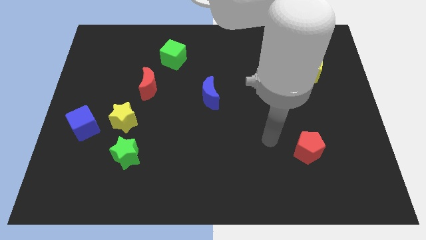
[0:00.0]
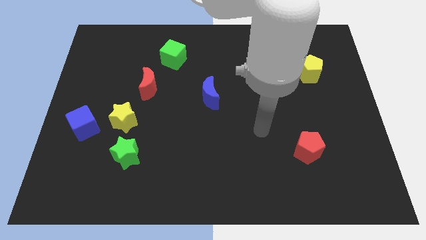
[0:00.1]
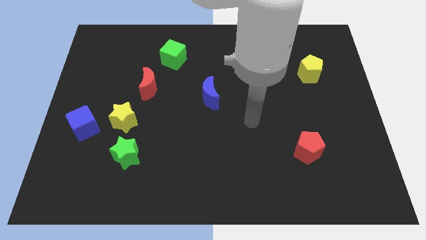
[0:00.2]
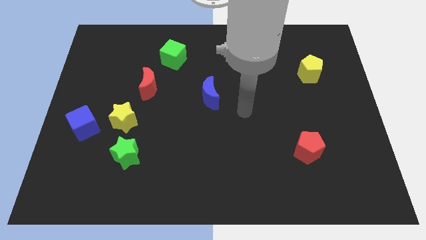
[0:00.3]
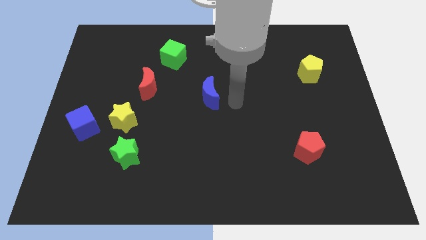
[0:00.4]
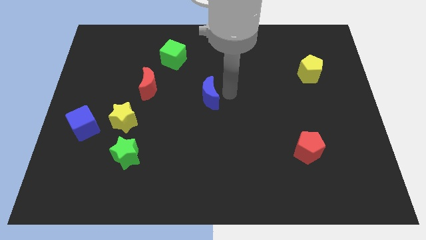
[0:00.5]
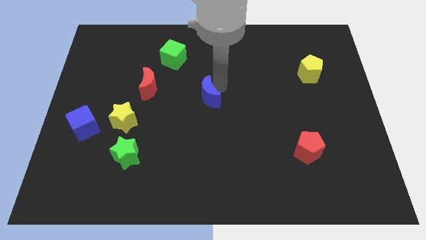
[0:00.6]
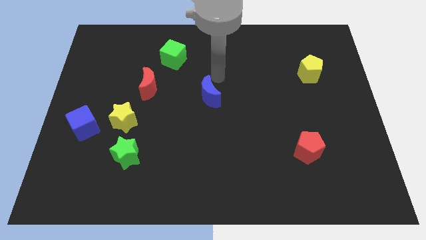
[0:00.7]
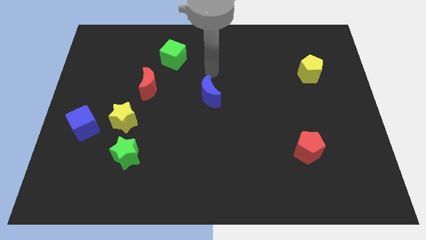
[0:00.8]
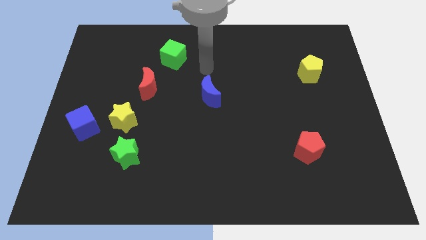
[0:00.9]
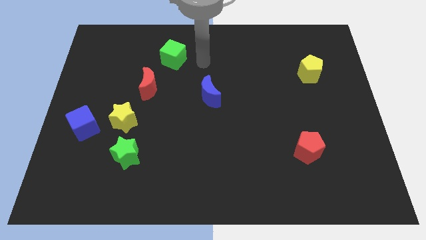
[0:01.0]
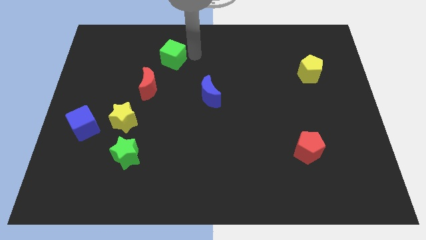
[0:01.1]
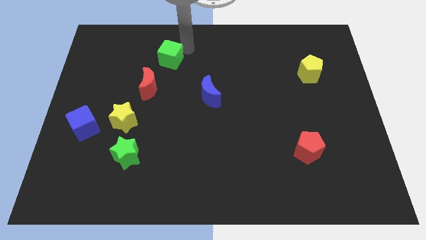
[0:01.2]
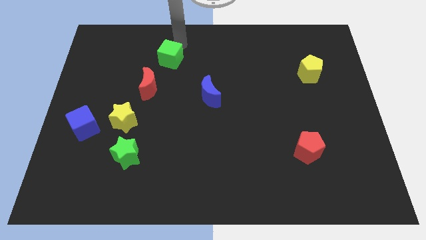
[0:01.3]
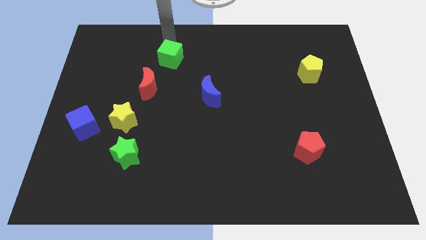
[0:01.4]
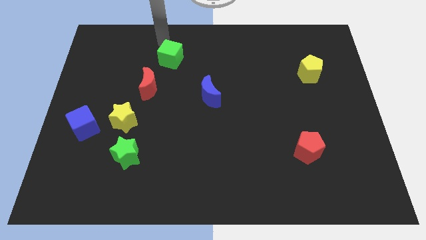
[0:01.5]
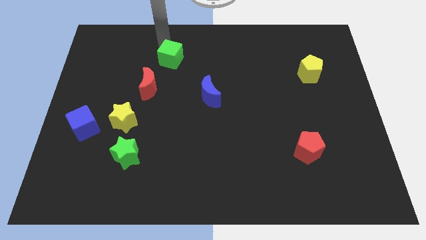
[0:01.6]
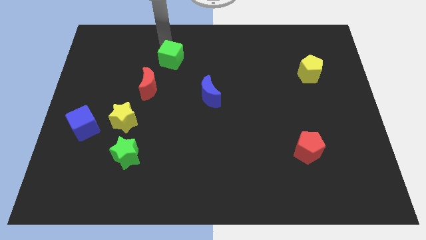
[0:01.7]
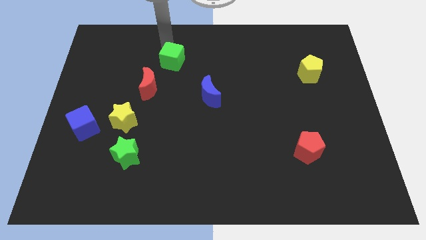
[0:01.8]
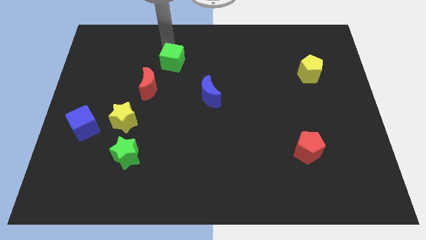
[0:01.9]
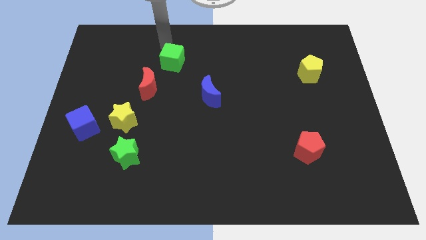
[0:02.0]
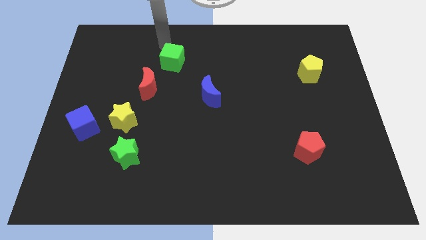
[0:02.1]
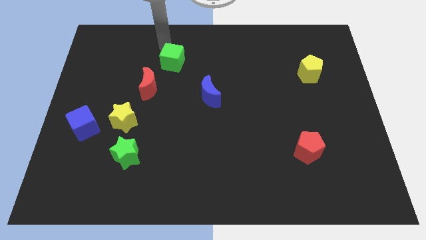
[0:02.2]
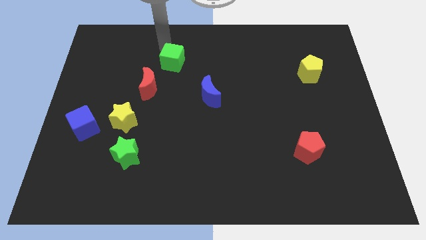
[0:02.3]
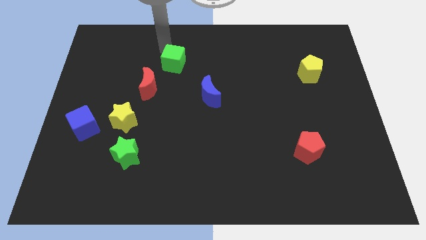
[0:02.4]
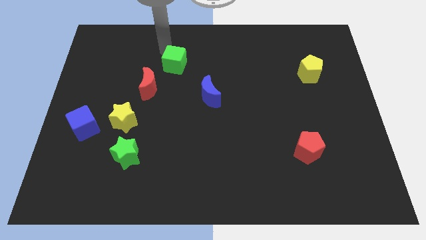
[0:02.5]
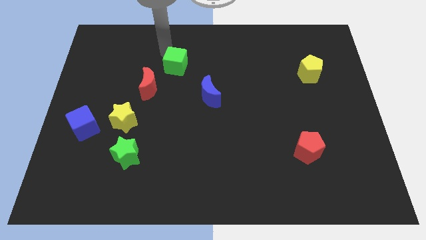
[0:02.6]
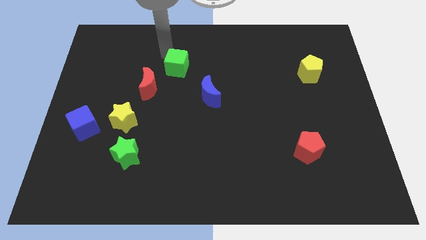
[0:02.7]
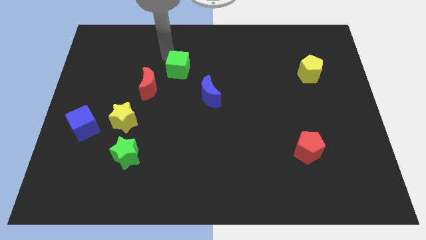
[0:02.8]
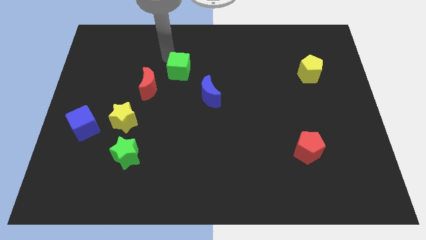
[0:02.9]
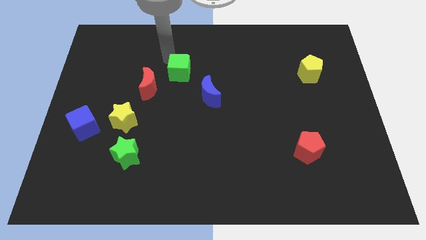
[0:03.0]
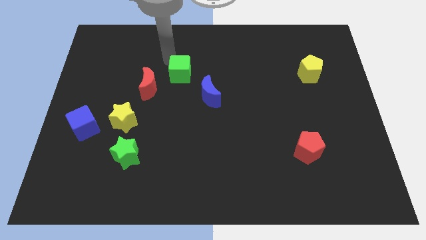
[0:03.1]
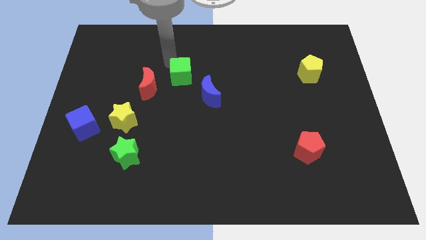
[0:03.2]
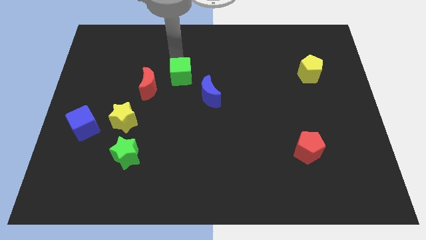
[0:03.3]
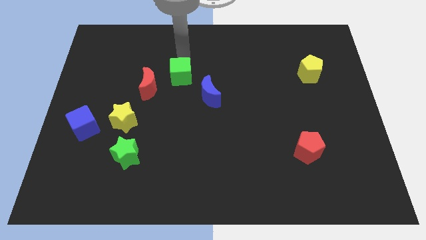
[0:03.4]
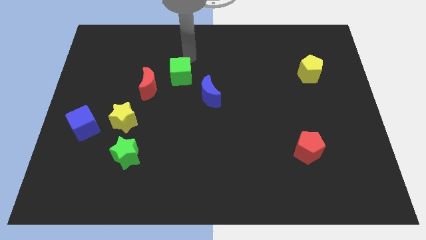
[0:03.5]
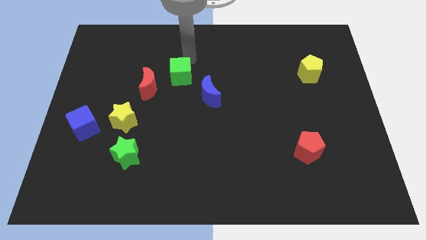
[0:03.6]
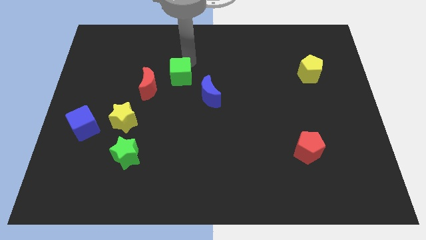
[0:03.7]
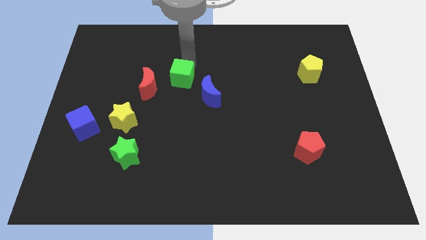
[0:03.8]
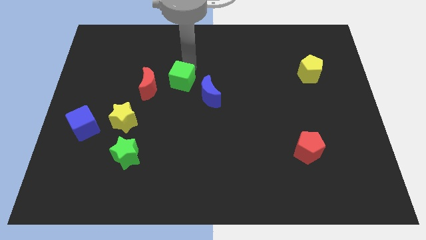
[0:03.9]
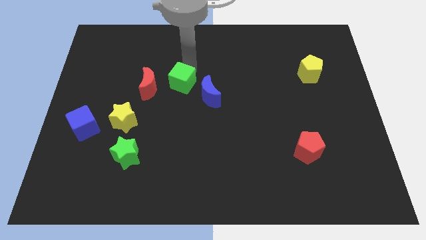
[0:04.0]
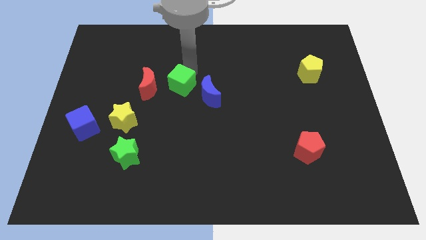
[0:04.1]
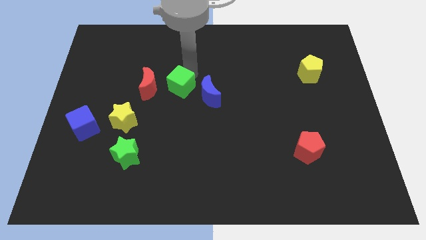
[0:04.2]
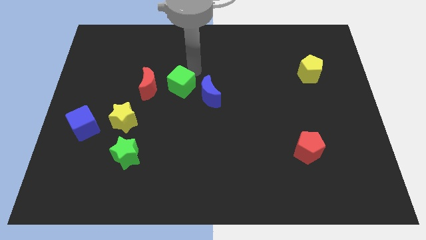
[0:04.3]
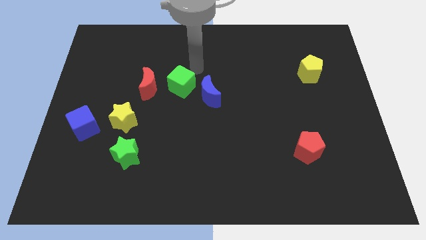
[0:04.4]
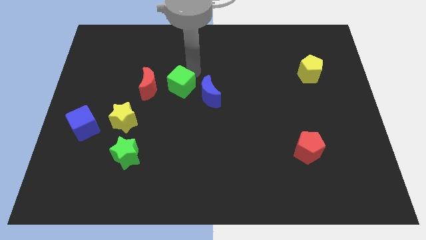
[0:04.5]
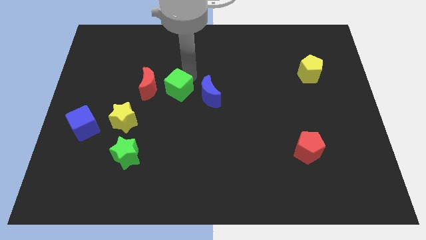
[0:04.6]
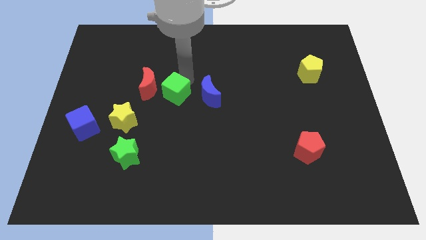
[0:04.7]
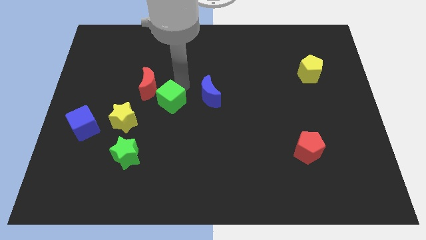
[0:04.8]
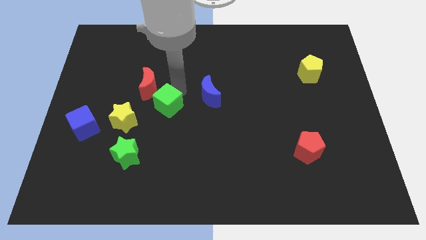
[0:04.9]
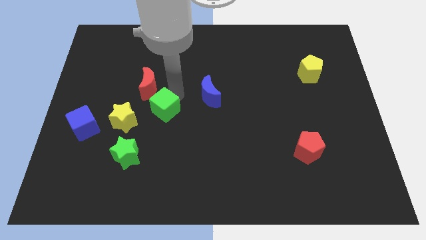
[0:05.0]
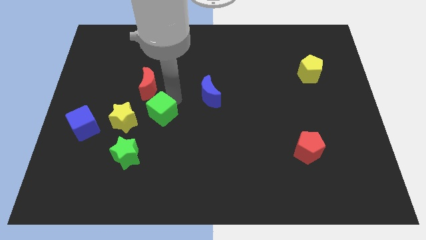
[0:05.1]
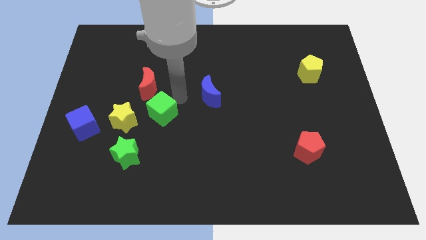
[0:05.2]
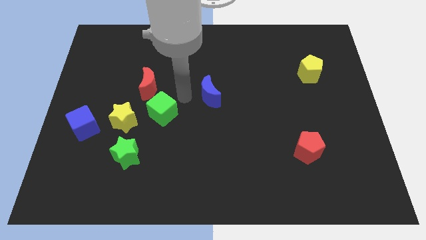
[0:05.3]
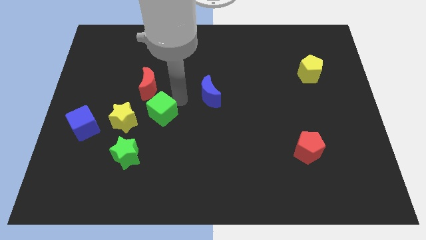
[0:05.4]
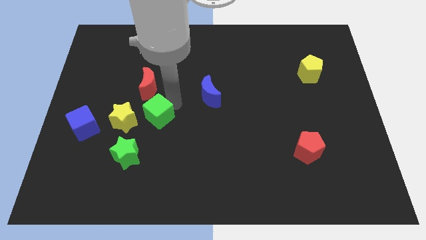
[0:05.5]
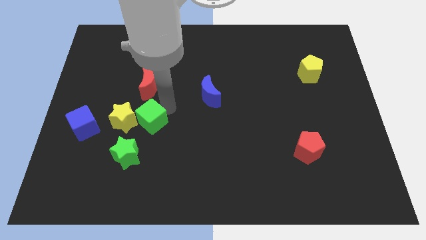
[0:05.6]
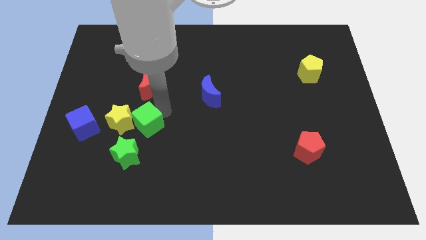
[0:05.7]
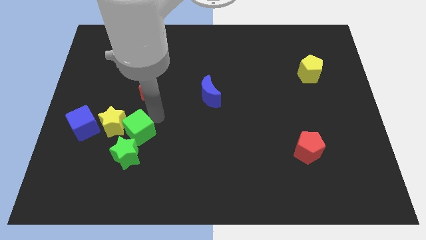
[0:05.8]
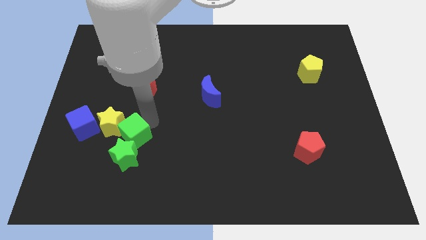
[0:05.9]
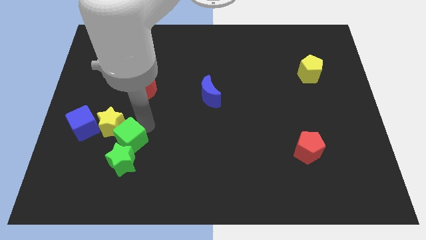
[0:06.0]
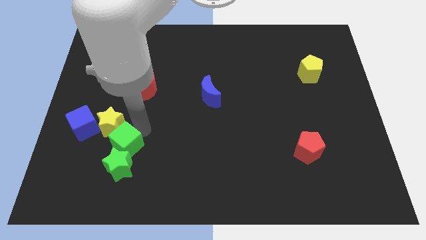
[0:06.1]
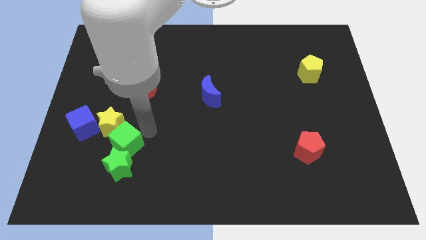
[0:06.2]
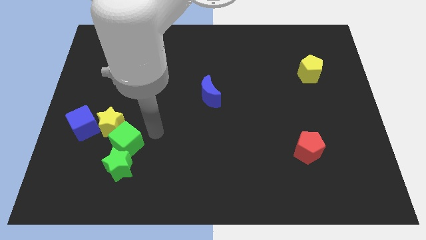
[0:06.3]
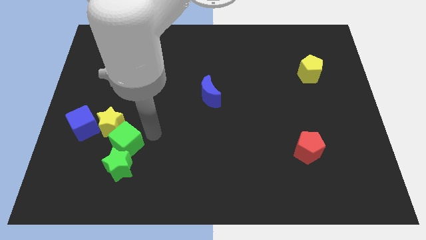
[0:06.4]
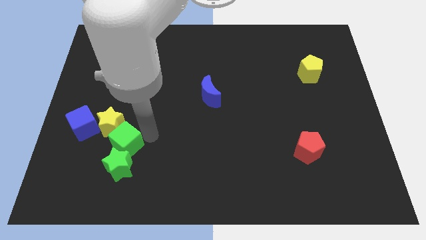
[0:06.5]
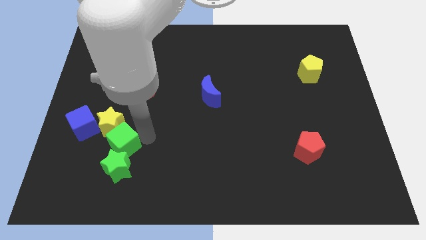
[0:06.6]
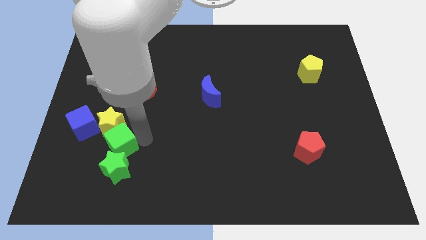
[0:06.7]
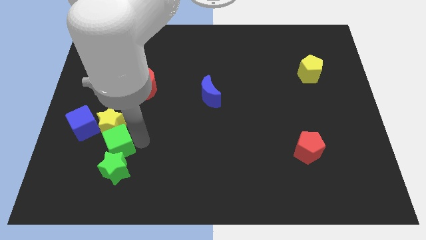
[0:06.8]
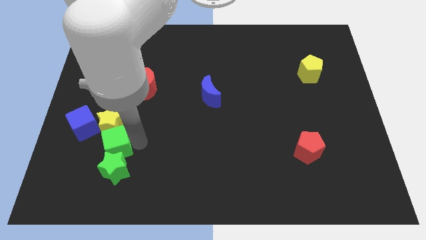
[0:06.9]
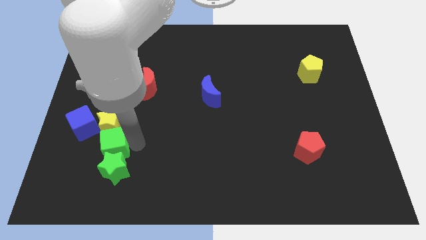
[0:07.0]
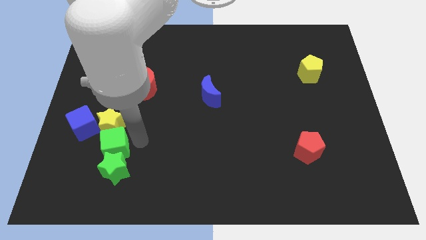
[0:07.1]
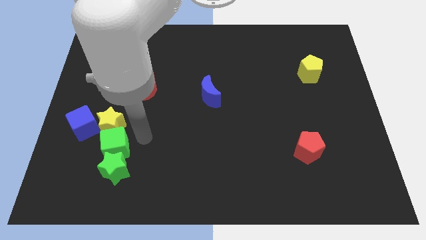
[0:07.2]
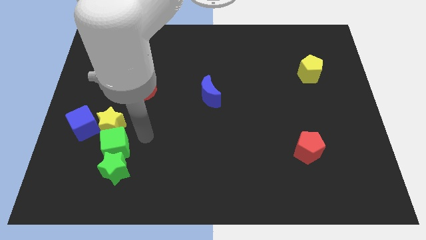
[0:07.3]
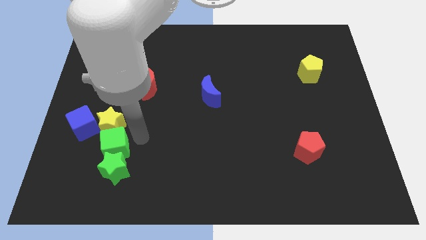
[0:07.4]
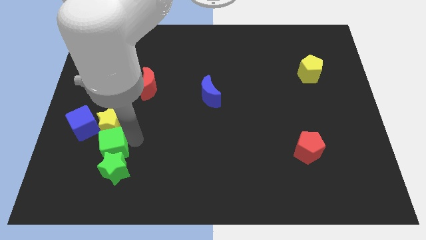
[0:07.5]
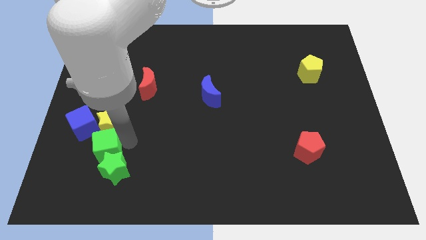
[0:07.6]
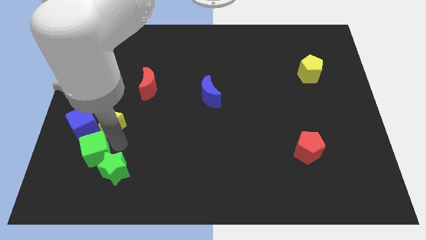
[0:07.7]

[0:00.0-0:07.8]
push the green cube below the blue cube
